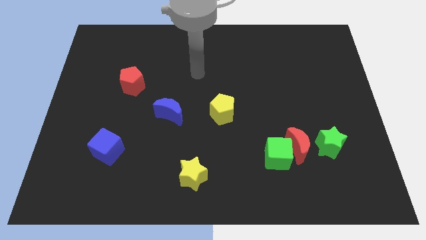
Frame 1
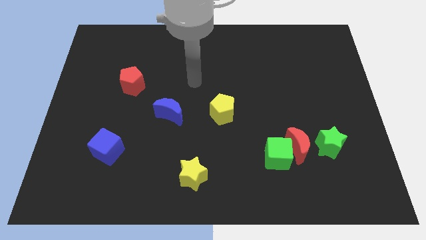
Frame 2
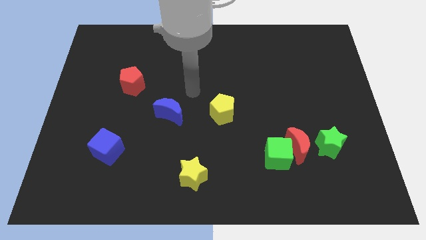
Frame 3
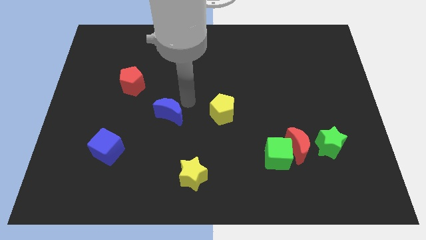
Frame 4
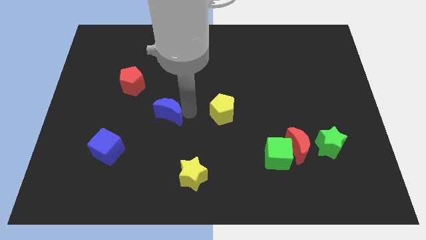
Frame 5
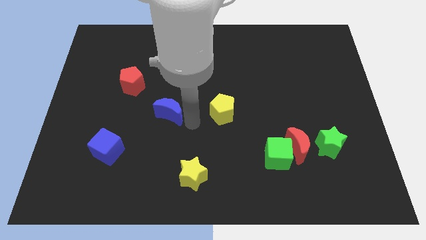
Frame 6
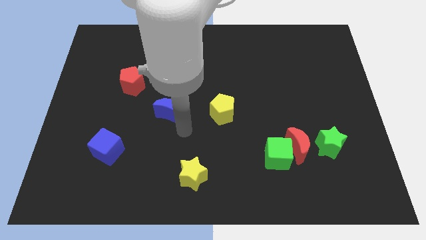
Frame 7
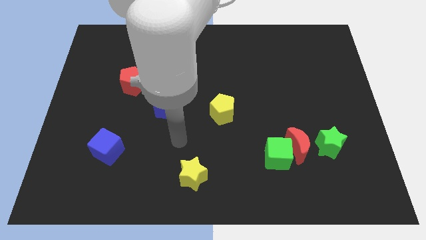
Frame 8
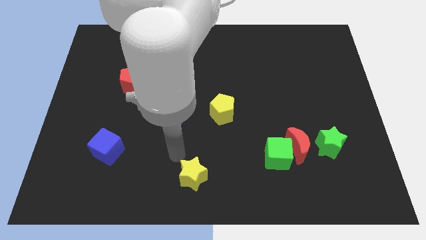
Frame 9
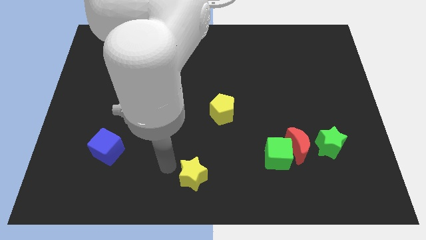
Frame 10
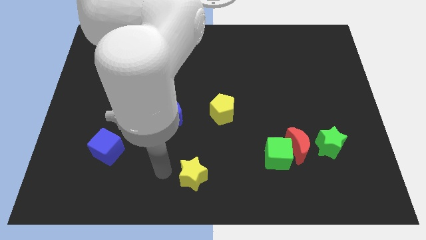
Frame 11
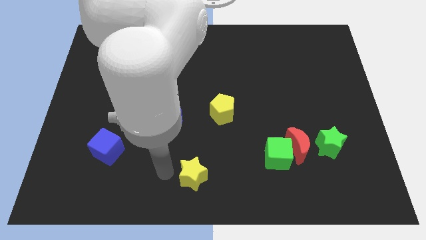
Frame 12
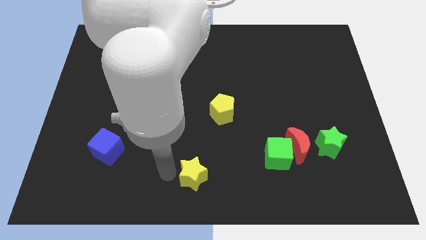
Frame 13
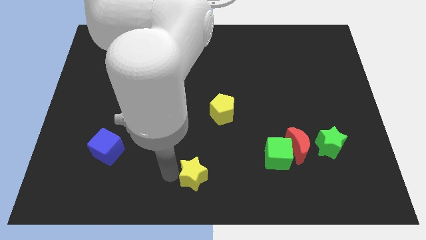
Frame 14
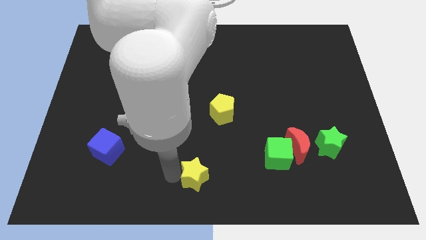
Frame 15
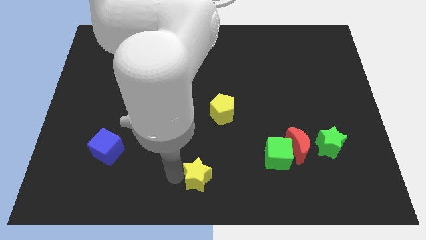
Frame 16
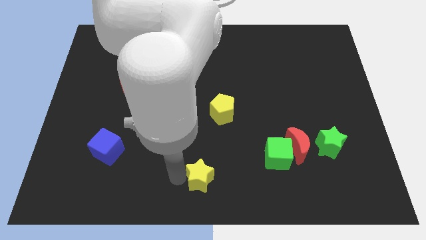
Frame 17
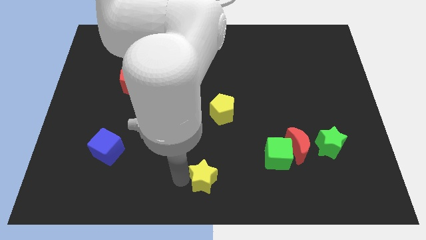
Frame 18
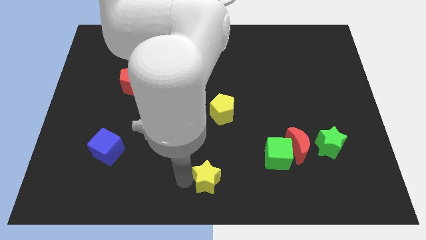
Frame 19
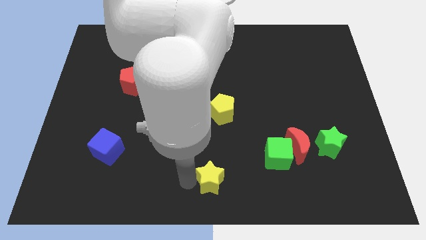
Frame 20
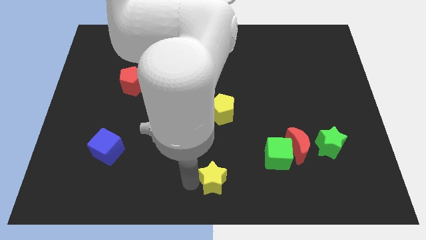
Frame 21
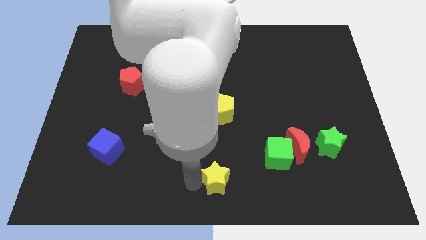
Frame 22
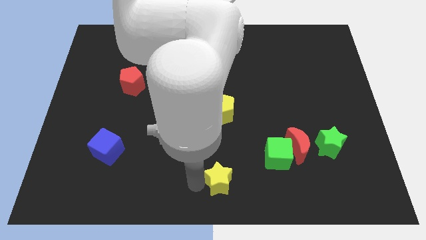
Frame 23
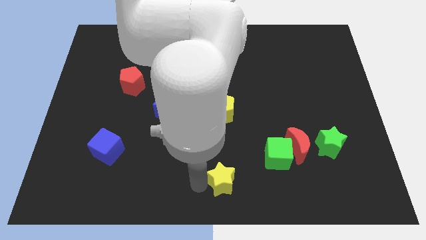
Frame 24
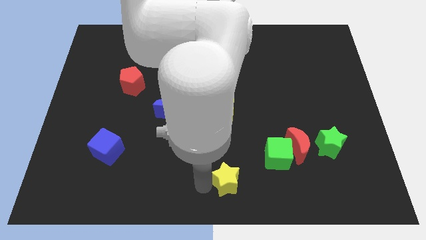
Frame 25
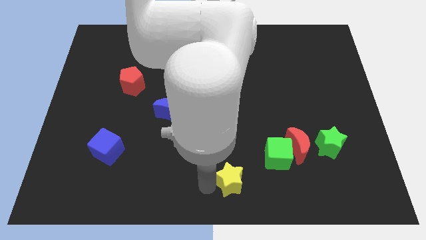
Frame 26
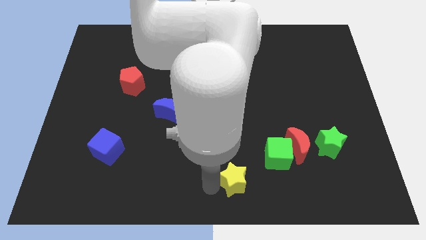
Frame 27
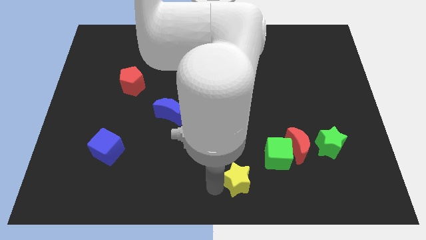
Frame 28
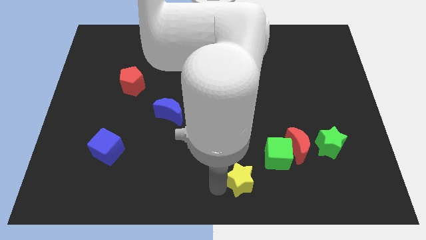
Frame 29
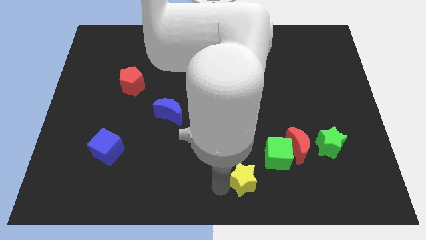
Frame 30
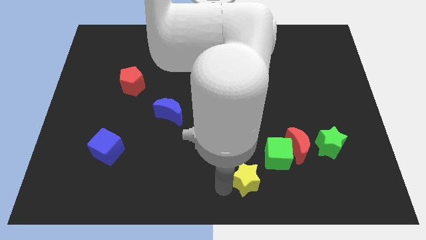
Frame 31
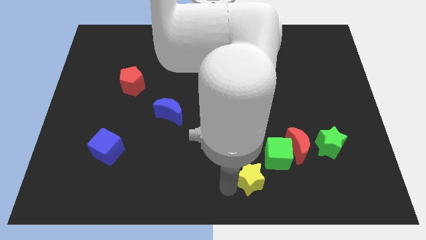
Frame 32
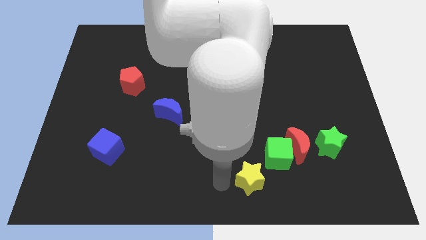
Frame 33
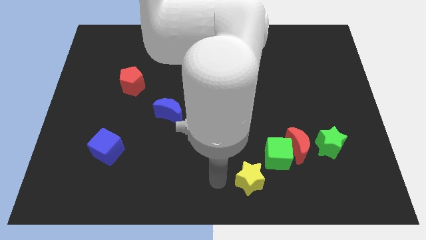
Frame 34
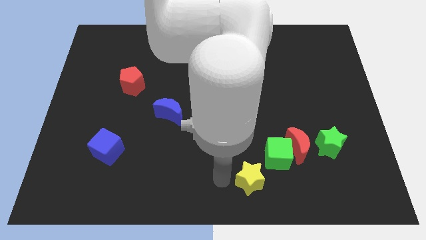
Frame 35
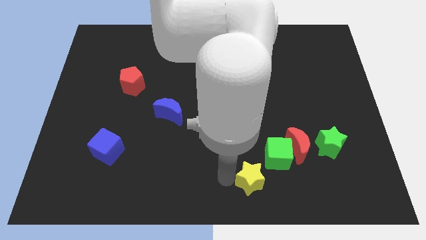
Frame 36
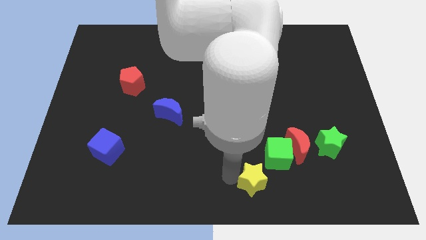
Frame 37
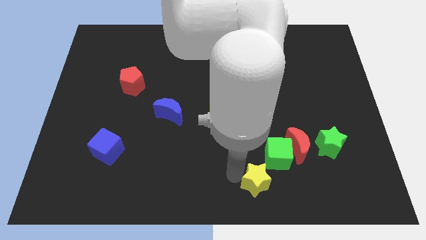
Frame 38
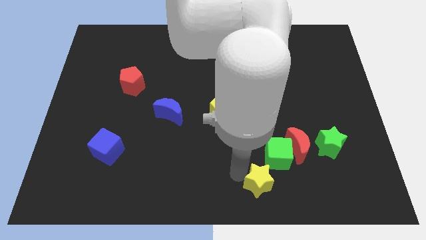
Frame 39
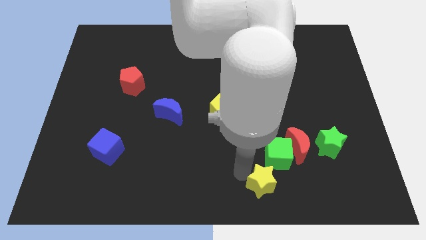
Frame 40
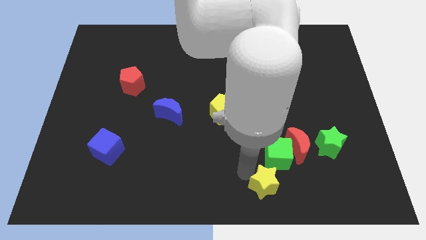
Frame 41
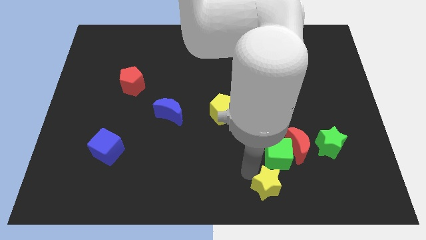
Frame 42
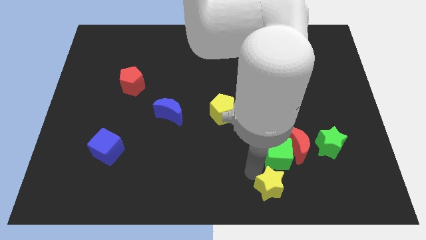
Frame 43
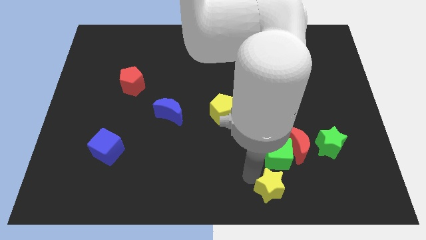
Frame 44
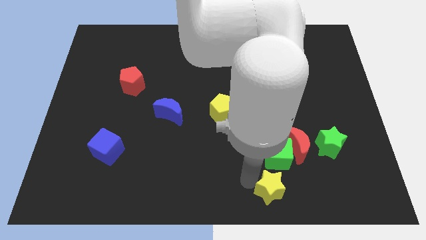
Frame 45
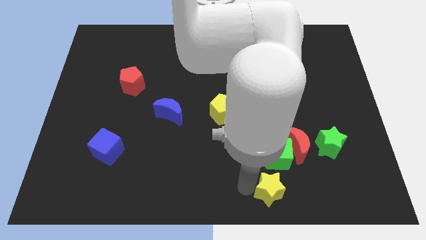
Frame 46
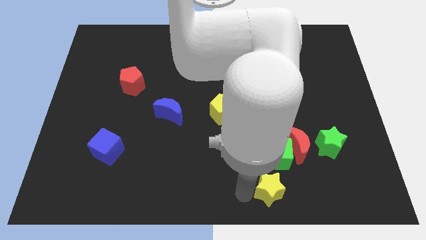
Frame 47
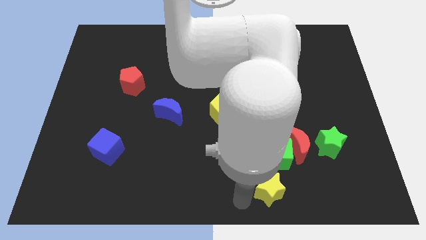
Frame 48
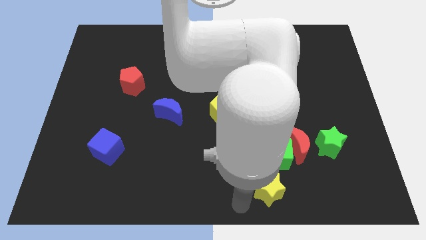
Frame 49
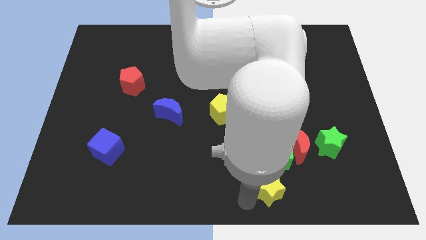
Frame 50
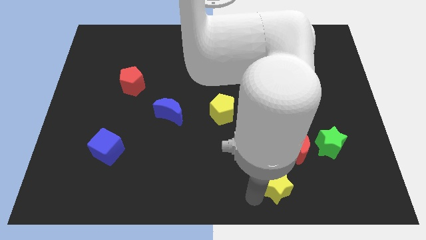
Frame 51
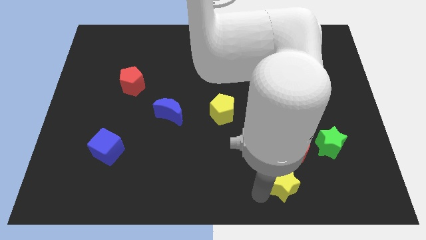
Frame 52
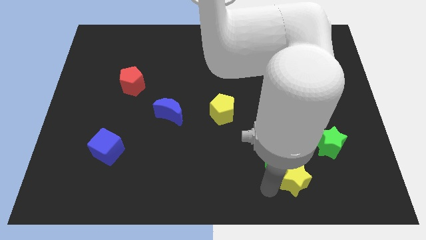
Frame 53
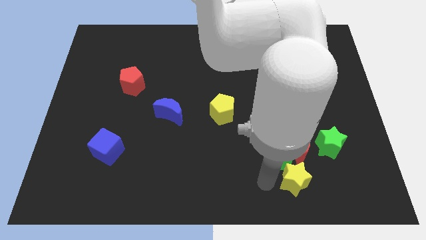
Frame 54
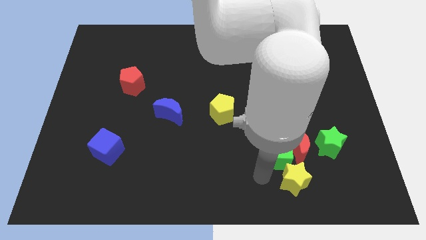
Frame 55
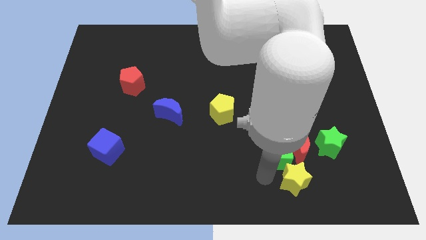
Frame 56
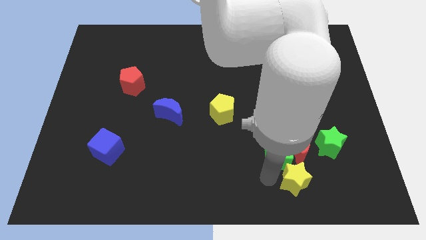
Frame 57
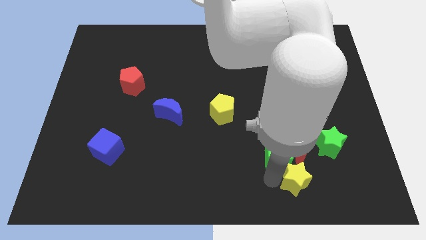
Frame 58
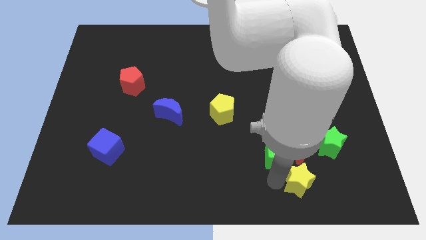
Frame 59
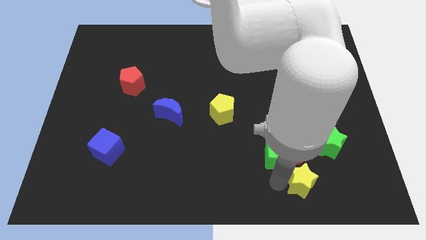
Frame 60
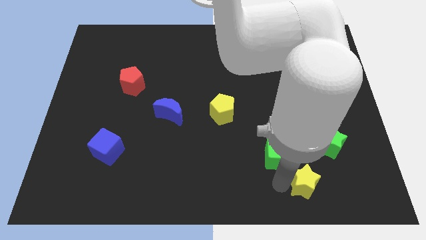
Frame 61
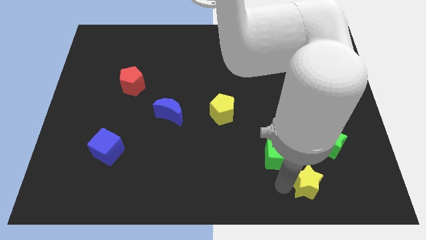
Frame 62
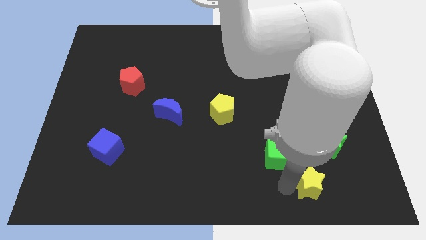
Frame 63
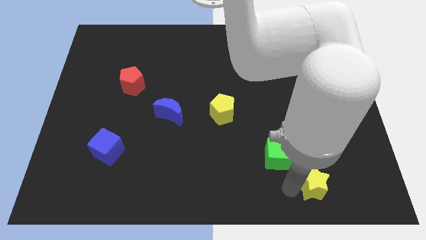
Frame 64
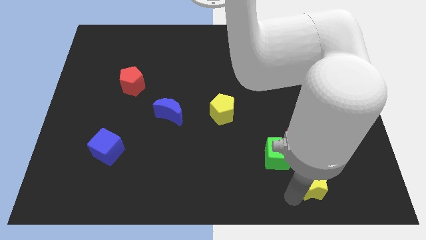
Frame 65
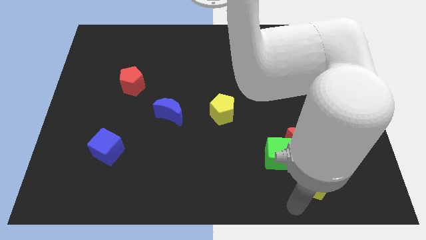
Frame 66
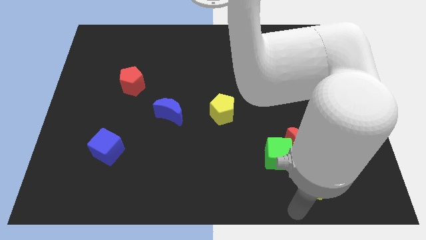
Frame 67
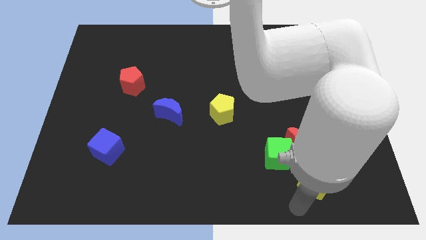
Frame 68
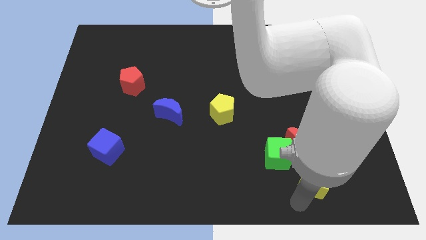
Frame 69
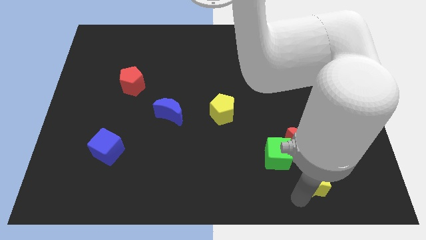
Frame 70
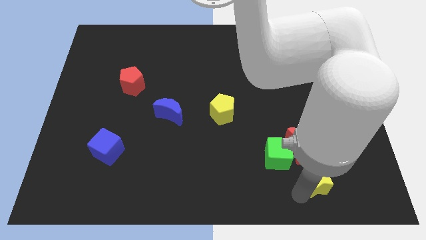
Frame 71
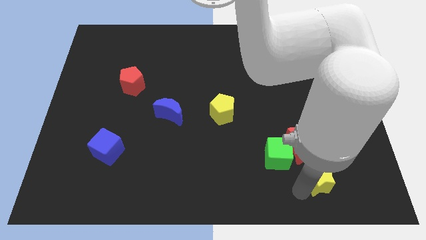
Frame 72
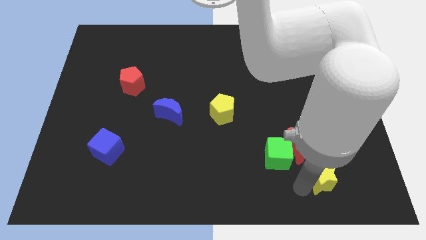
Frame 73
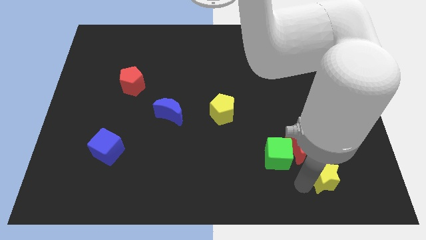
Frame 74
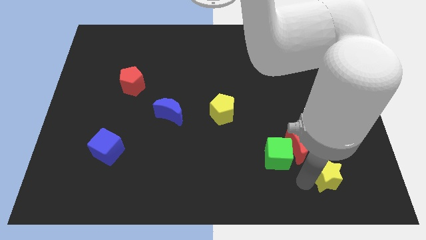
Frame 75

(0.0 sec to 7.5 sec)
slide the yellow star just right of the green cube

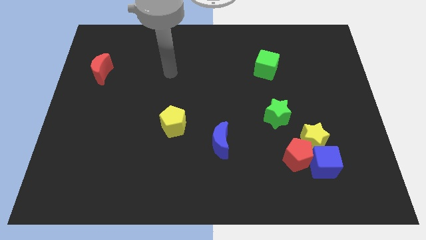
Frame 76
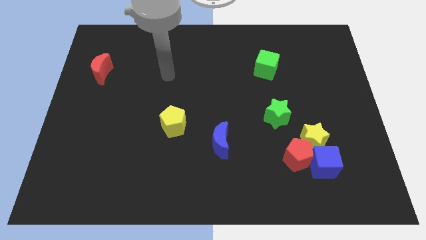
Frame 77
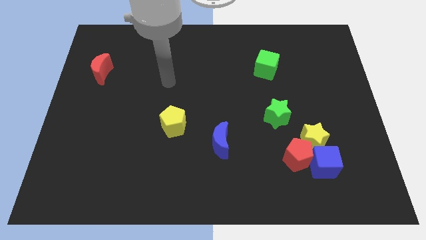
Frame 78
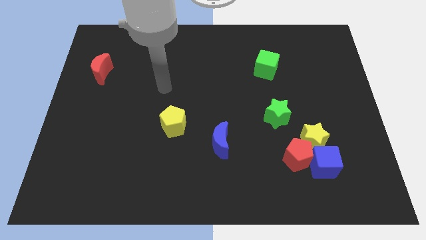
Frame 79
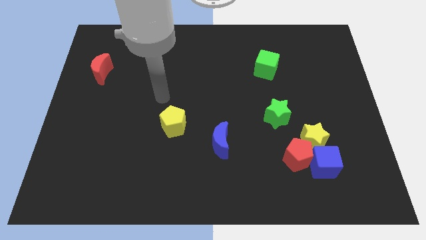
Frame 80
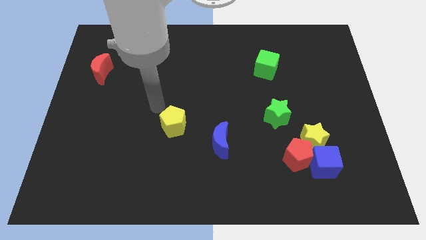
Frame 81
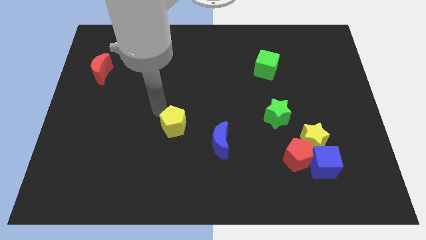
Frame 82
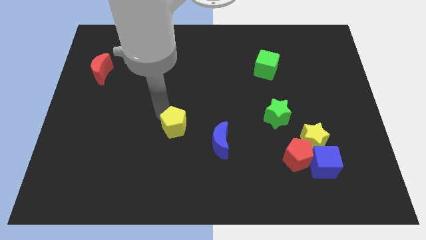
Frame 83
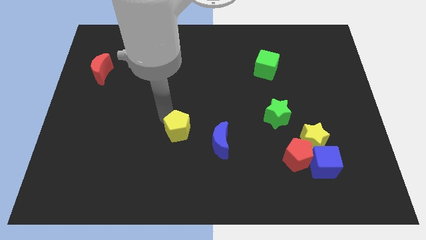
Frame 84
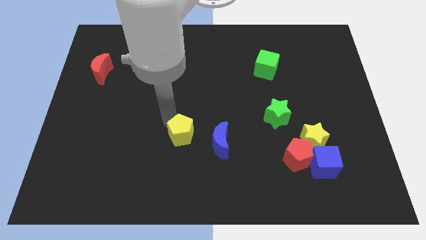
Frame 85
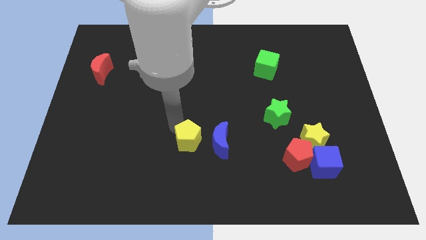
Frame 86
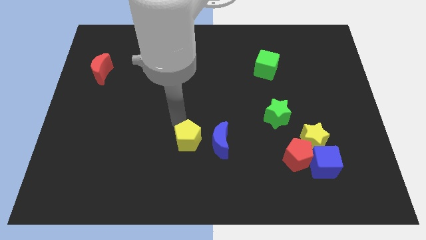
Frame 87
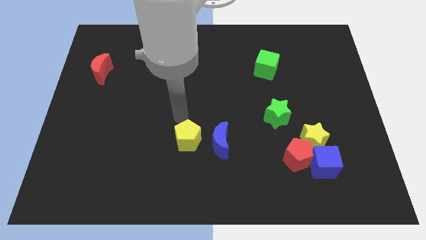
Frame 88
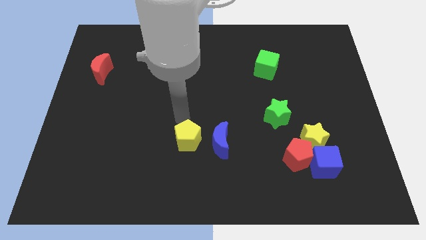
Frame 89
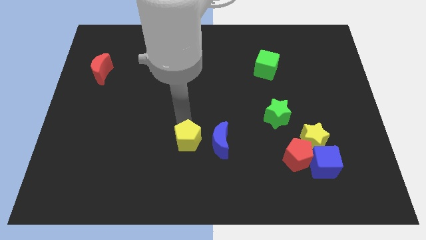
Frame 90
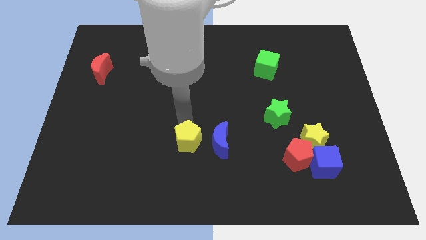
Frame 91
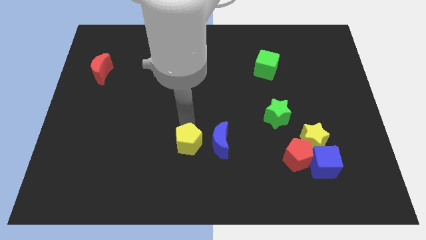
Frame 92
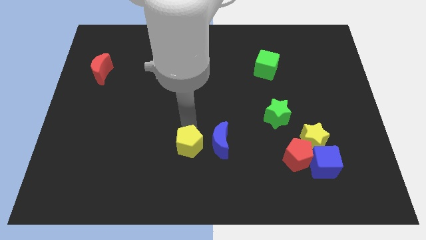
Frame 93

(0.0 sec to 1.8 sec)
slide the yellow pentagon to the bottom left of the blue moon
